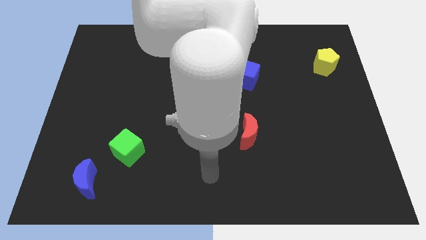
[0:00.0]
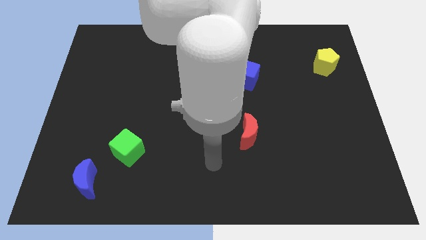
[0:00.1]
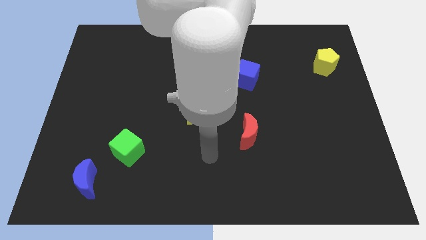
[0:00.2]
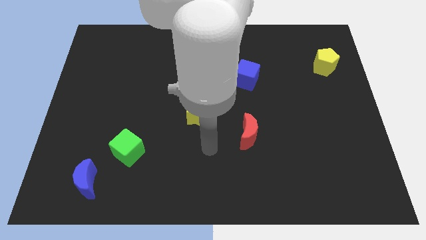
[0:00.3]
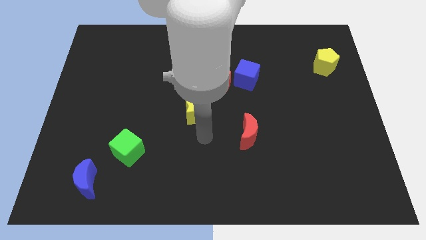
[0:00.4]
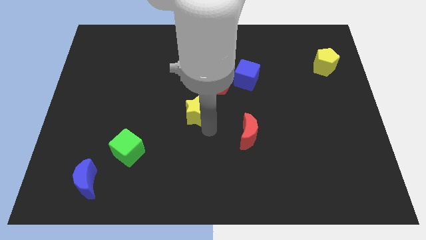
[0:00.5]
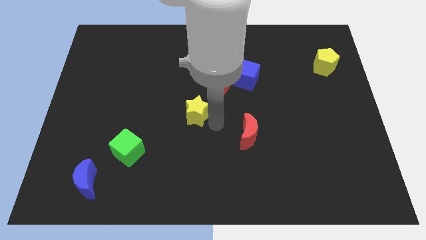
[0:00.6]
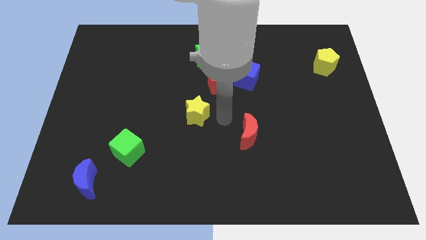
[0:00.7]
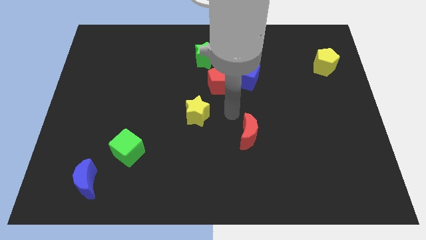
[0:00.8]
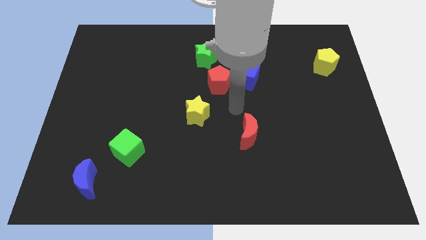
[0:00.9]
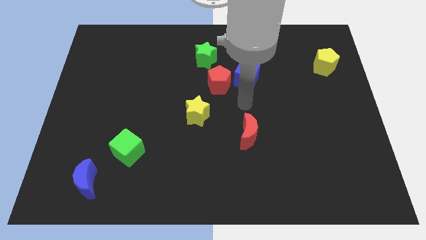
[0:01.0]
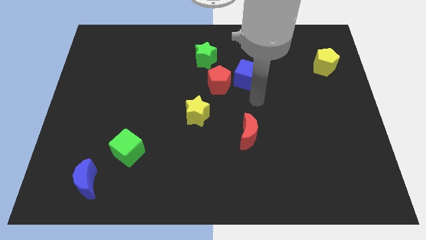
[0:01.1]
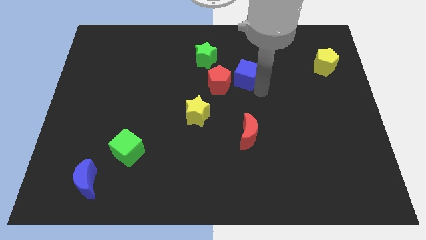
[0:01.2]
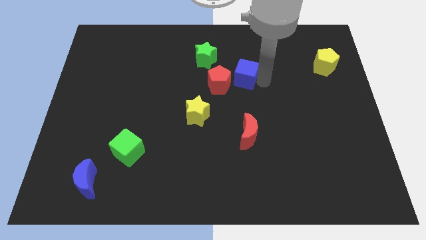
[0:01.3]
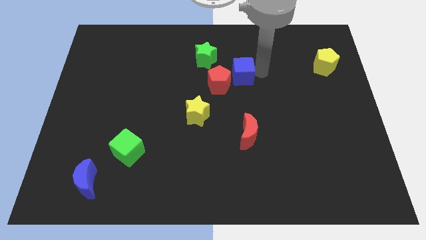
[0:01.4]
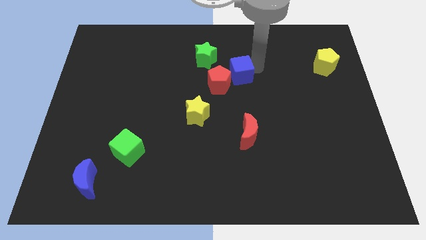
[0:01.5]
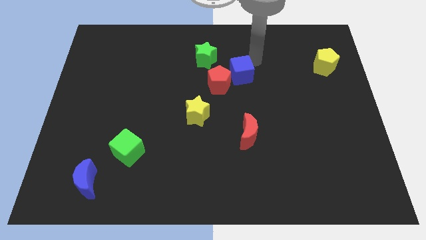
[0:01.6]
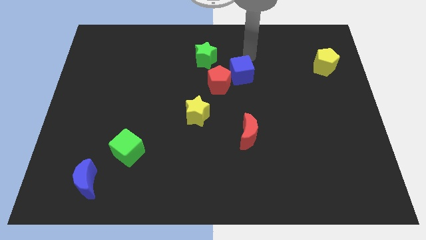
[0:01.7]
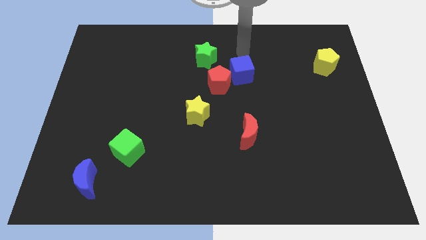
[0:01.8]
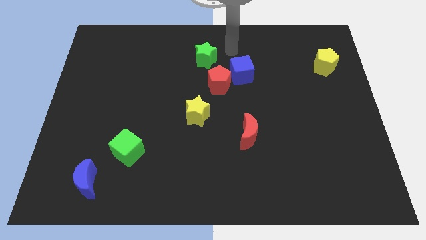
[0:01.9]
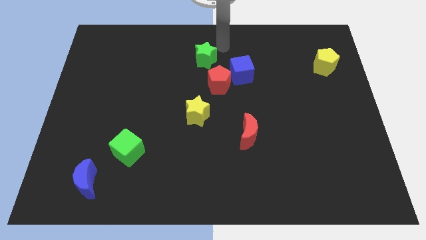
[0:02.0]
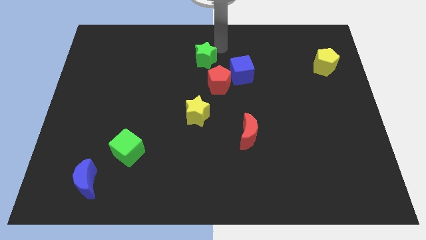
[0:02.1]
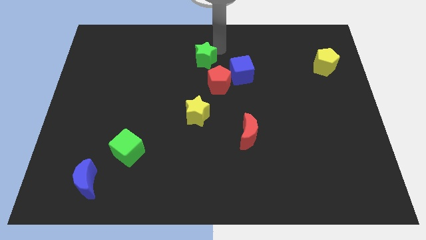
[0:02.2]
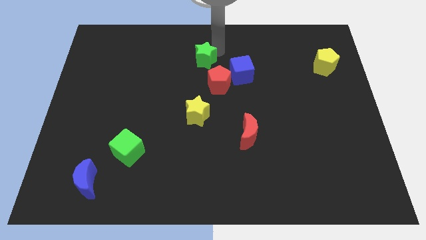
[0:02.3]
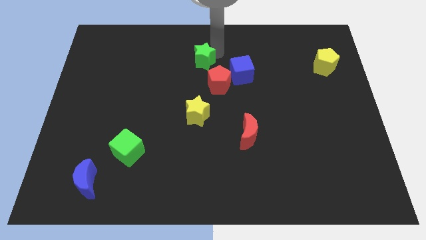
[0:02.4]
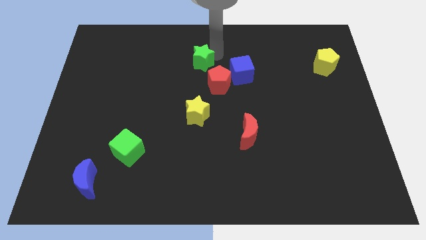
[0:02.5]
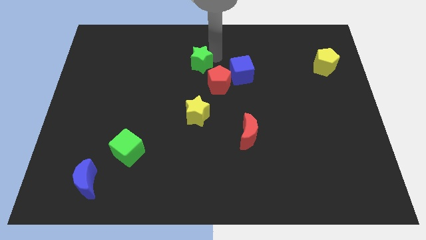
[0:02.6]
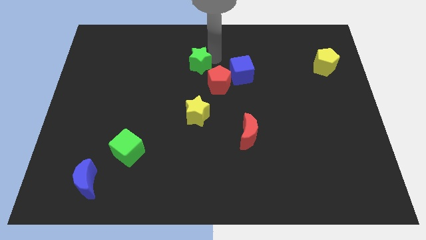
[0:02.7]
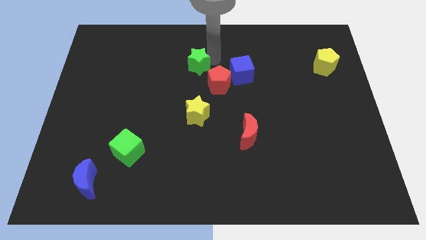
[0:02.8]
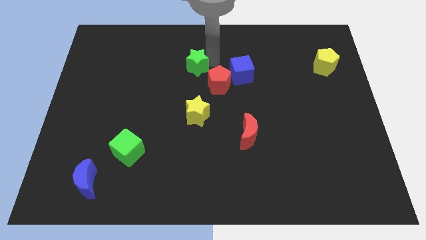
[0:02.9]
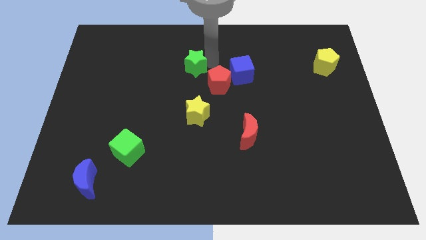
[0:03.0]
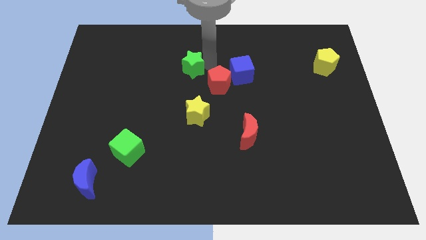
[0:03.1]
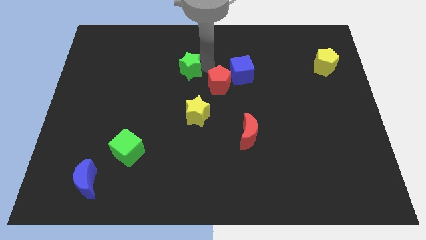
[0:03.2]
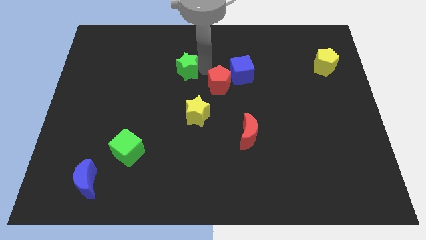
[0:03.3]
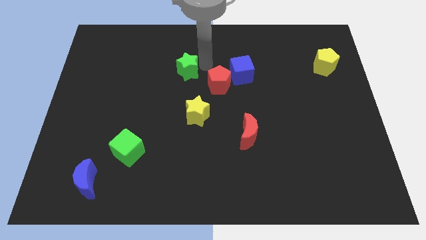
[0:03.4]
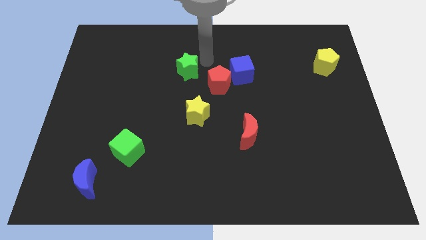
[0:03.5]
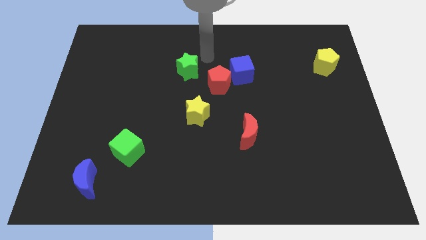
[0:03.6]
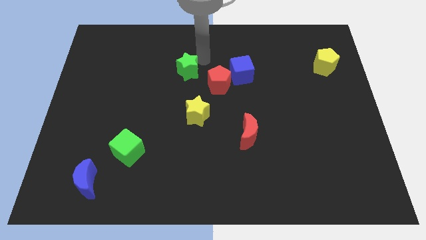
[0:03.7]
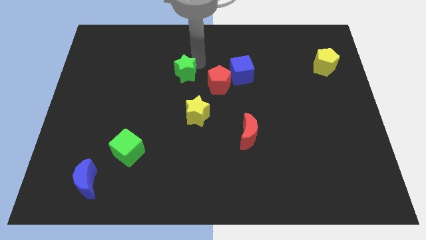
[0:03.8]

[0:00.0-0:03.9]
push the green star diagonally down and left a bit

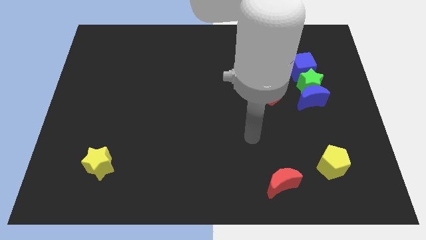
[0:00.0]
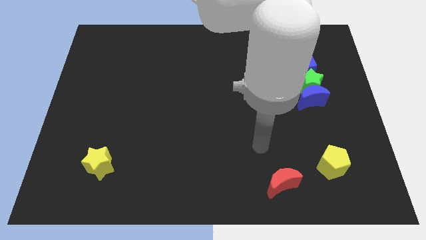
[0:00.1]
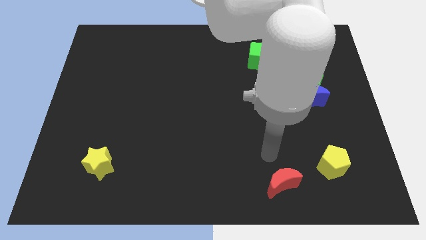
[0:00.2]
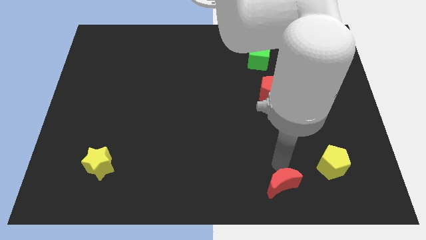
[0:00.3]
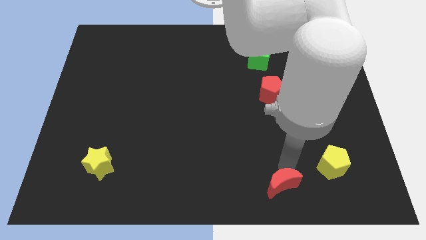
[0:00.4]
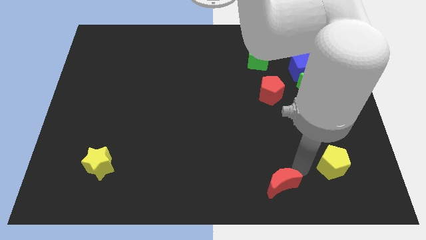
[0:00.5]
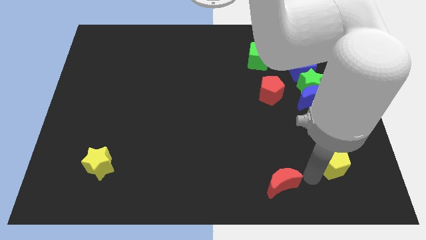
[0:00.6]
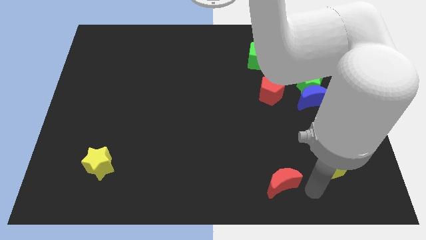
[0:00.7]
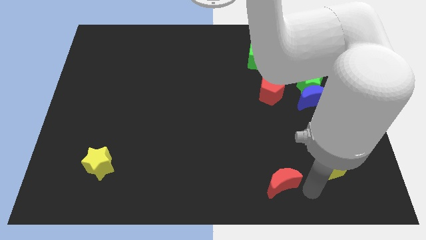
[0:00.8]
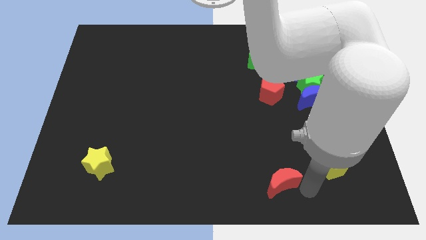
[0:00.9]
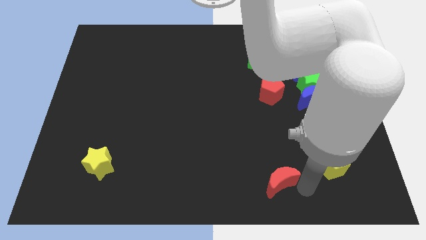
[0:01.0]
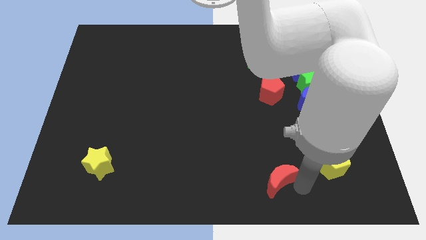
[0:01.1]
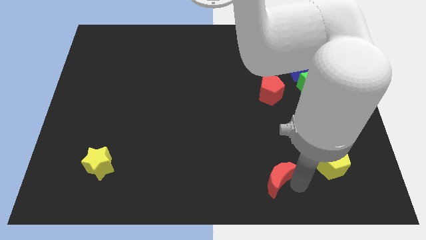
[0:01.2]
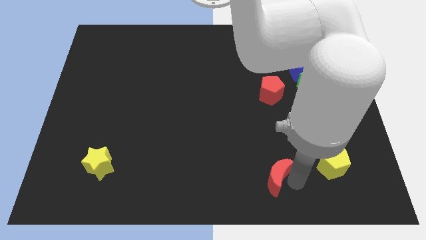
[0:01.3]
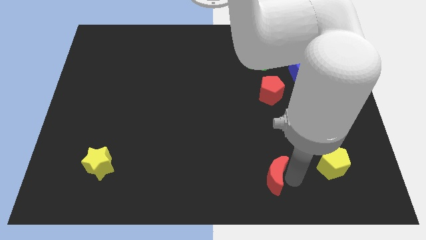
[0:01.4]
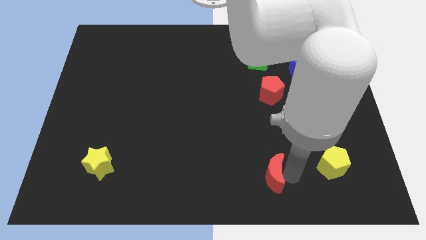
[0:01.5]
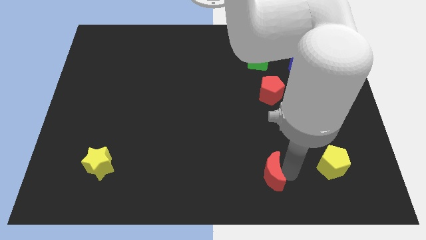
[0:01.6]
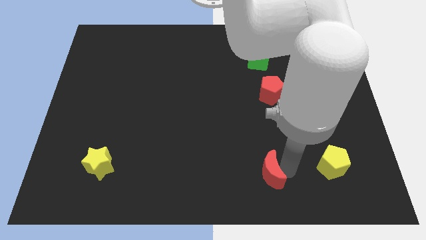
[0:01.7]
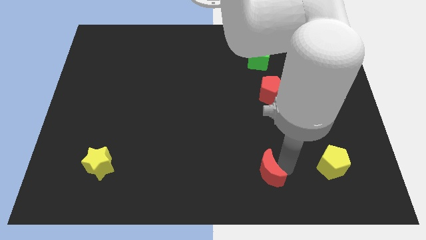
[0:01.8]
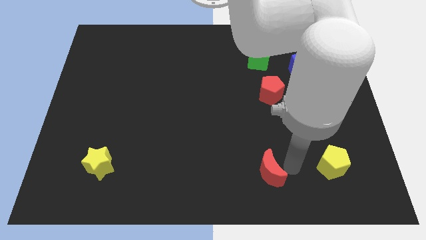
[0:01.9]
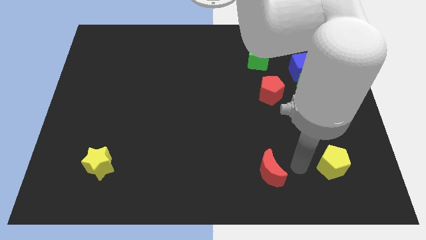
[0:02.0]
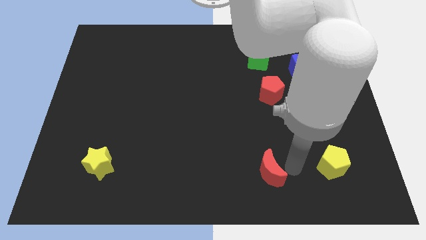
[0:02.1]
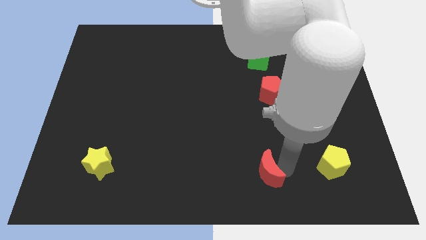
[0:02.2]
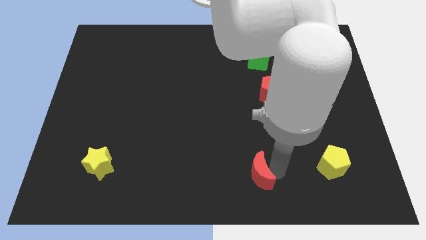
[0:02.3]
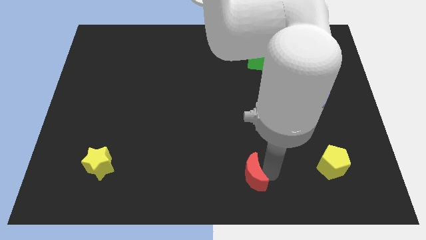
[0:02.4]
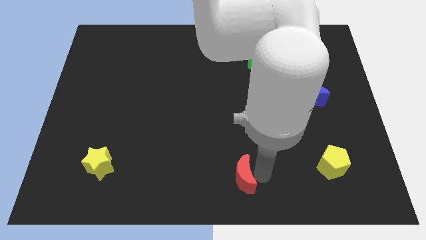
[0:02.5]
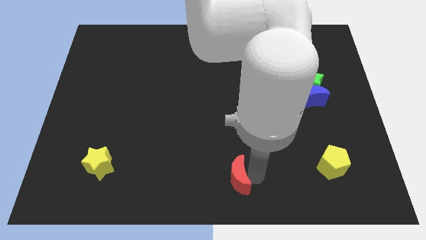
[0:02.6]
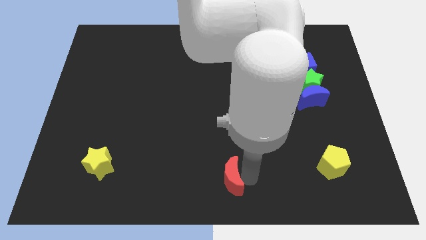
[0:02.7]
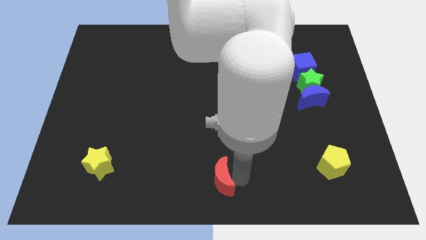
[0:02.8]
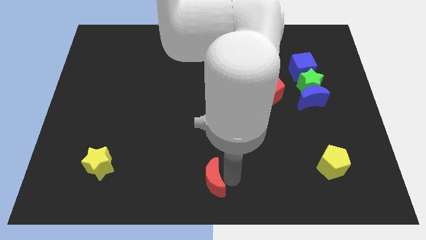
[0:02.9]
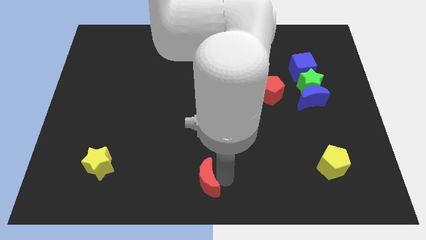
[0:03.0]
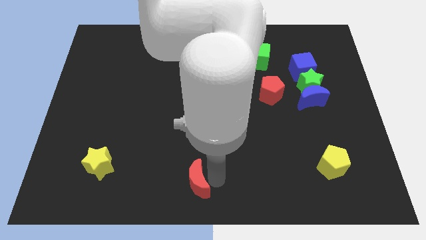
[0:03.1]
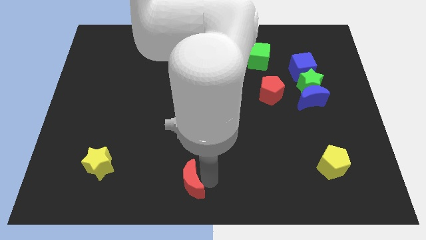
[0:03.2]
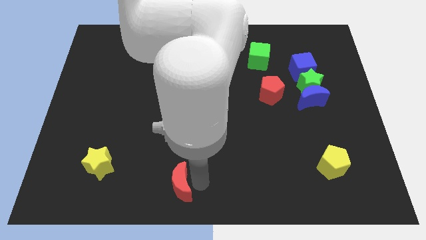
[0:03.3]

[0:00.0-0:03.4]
slide the red moon left

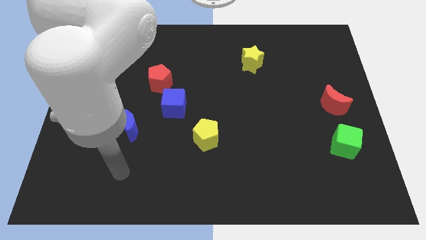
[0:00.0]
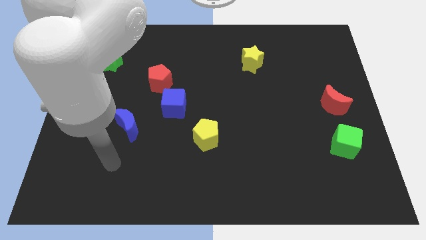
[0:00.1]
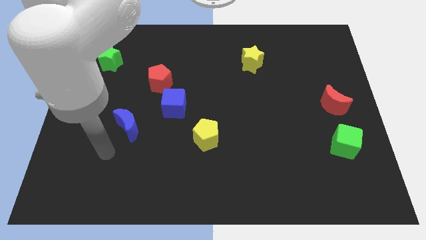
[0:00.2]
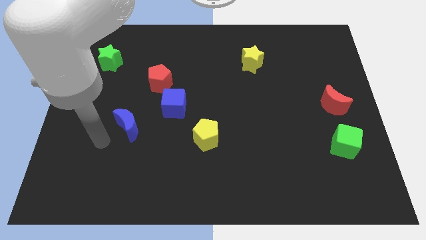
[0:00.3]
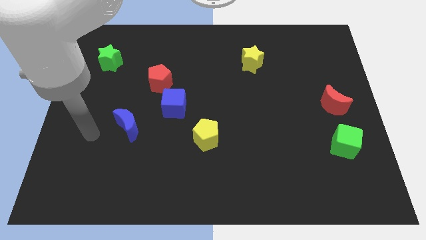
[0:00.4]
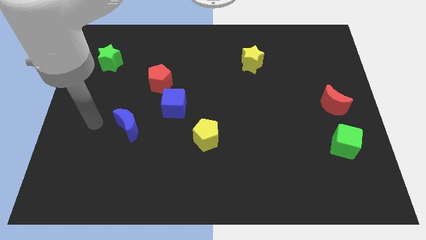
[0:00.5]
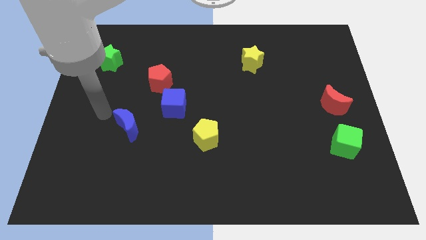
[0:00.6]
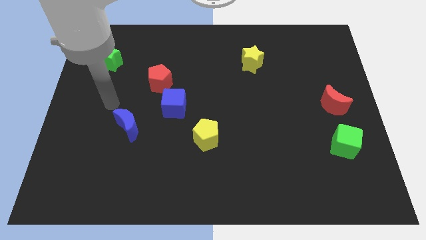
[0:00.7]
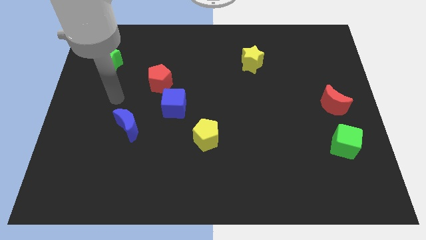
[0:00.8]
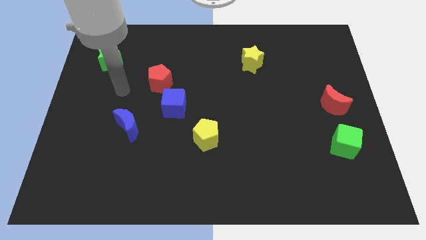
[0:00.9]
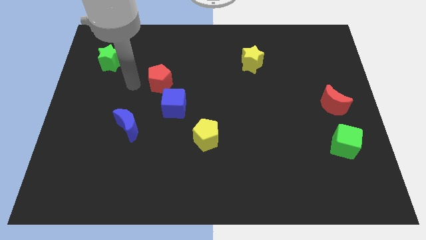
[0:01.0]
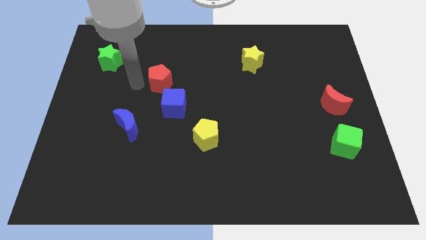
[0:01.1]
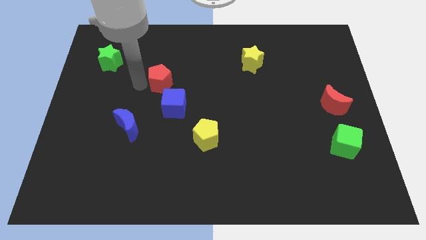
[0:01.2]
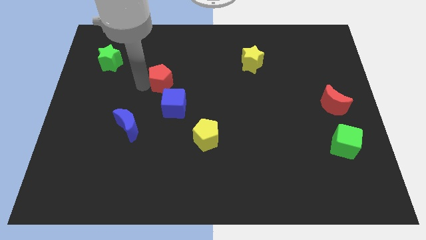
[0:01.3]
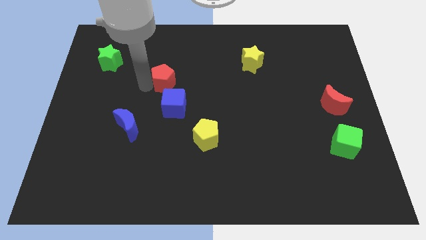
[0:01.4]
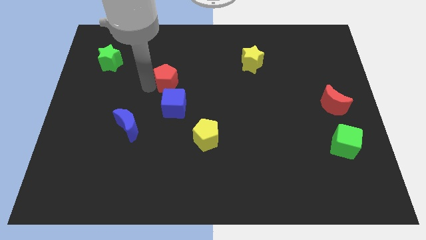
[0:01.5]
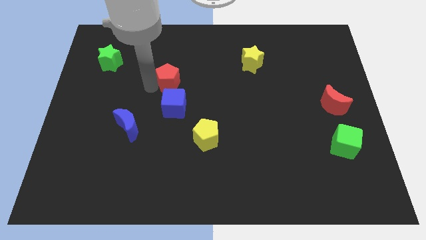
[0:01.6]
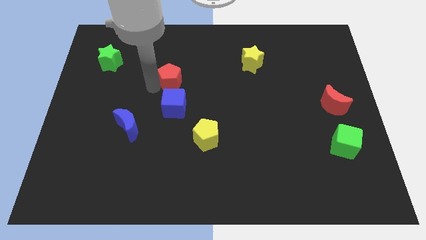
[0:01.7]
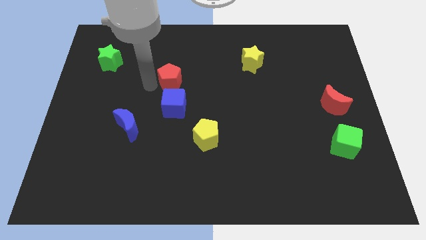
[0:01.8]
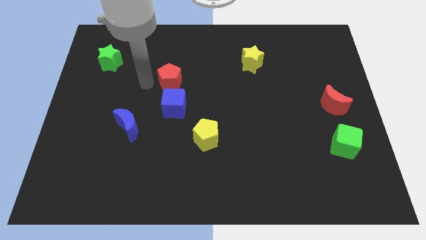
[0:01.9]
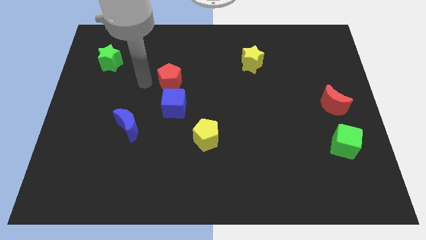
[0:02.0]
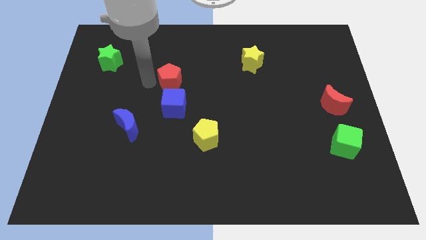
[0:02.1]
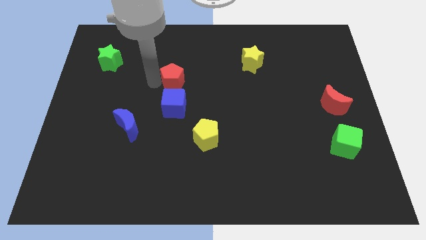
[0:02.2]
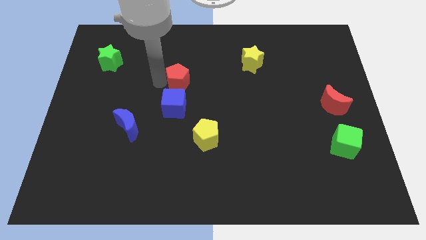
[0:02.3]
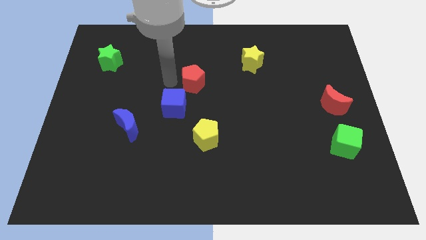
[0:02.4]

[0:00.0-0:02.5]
move the red pentagon to the right slightly
